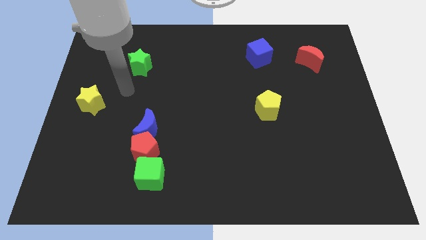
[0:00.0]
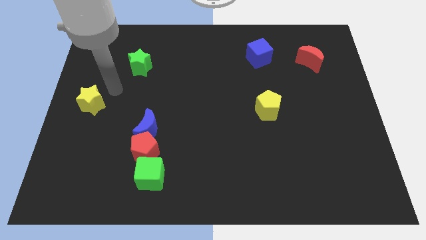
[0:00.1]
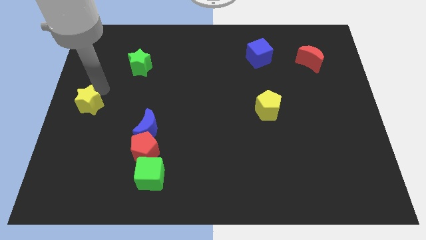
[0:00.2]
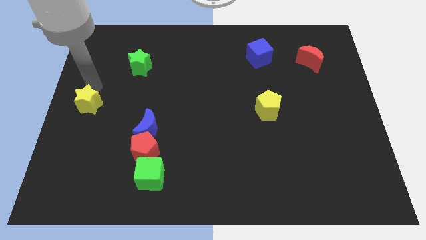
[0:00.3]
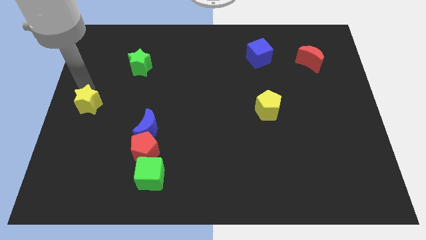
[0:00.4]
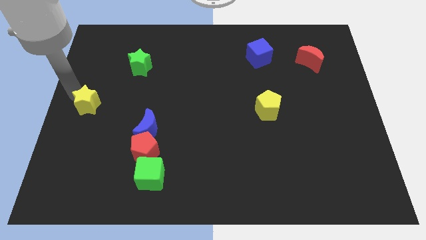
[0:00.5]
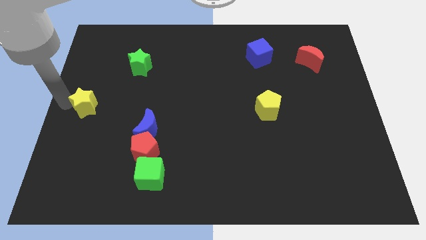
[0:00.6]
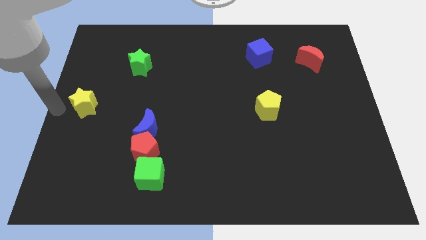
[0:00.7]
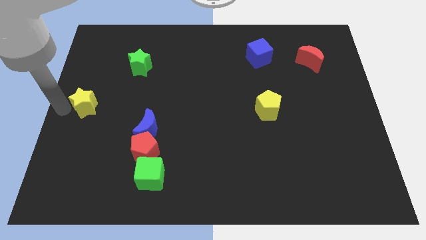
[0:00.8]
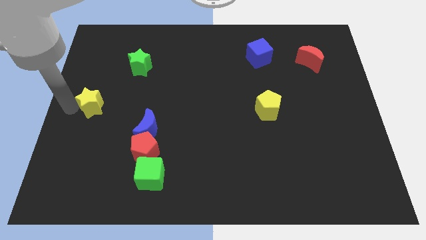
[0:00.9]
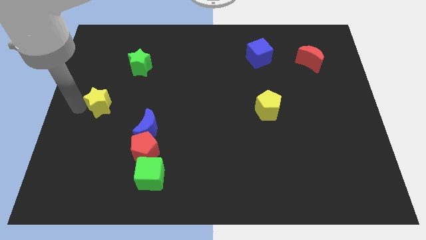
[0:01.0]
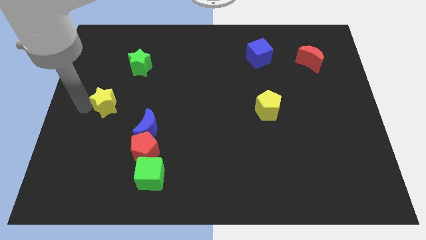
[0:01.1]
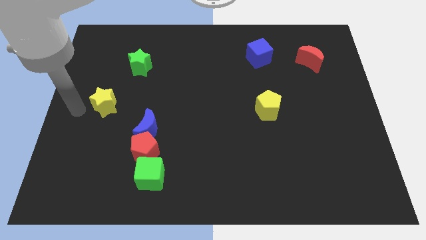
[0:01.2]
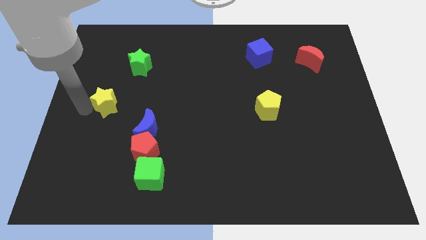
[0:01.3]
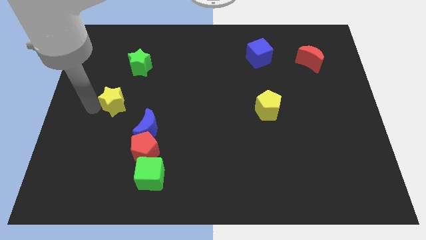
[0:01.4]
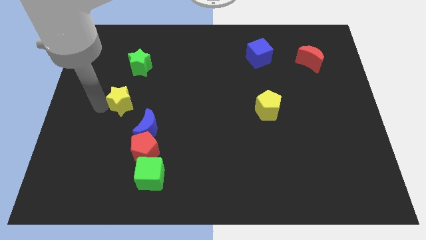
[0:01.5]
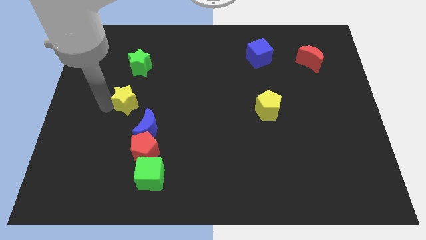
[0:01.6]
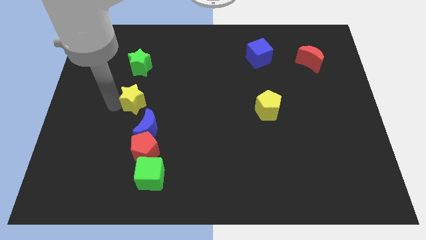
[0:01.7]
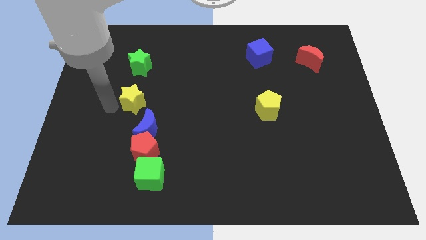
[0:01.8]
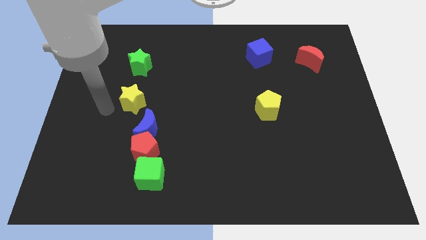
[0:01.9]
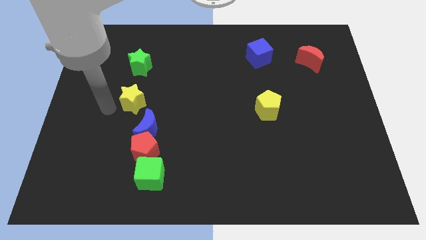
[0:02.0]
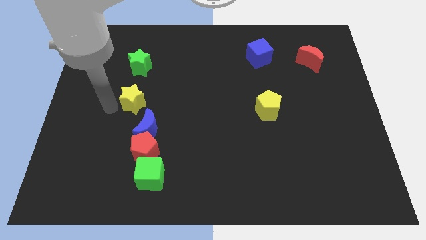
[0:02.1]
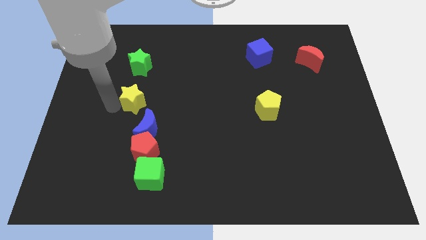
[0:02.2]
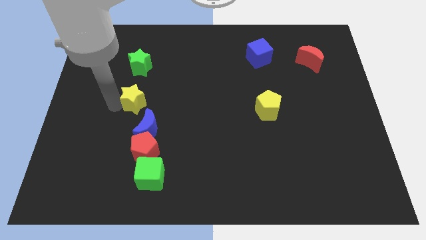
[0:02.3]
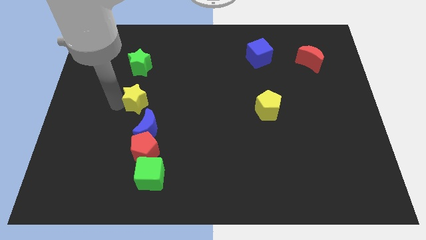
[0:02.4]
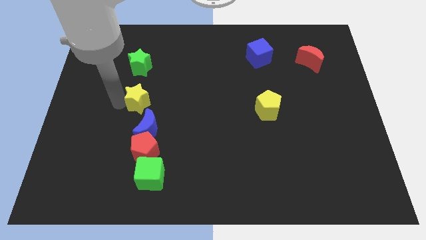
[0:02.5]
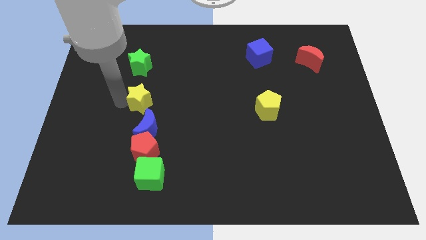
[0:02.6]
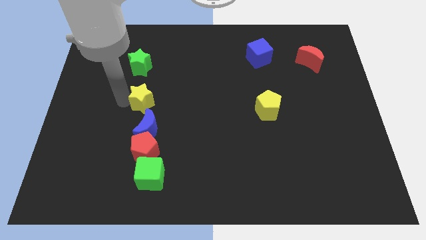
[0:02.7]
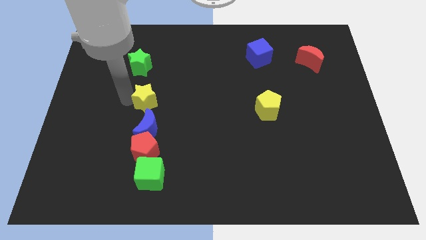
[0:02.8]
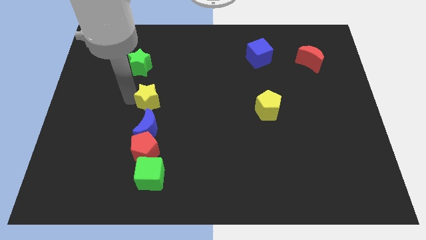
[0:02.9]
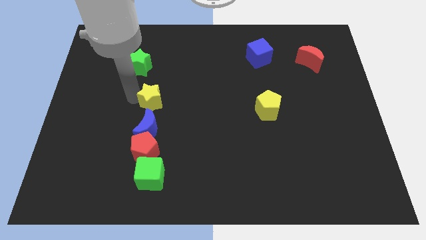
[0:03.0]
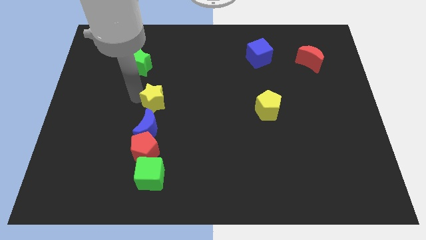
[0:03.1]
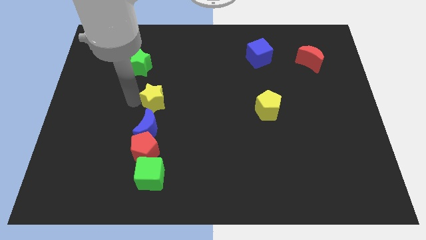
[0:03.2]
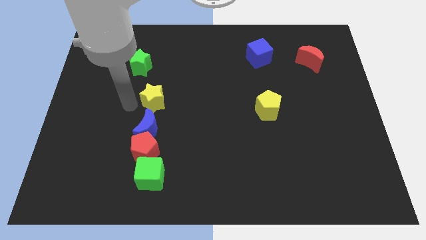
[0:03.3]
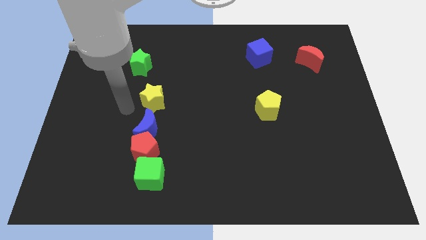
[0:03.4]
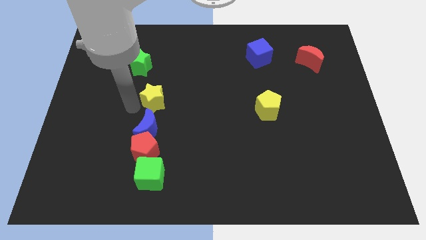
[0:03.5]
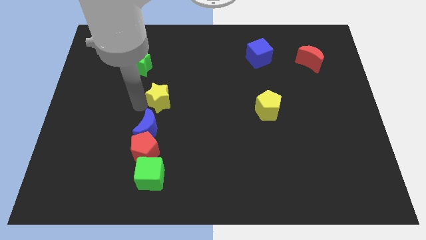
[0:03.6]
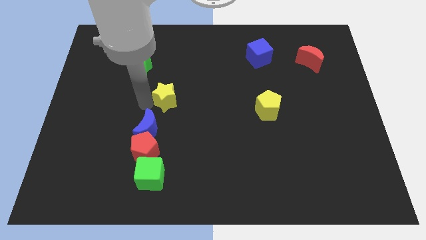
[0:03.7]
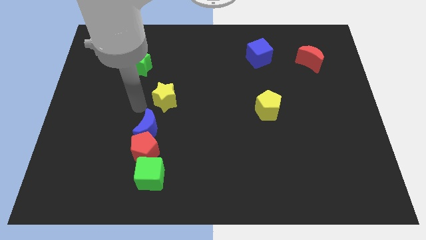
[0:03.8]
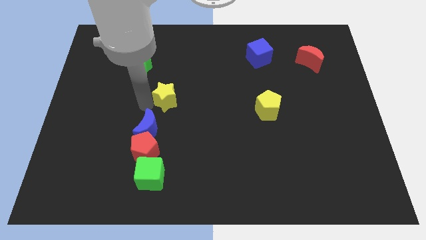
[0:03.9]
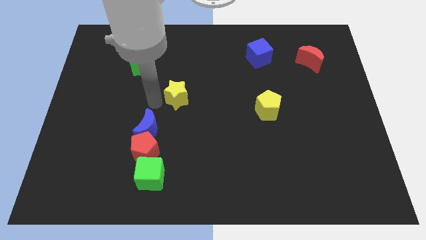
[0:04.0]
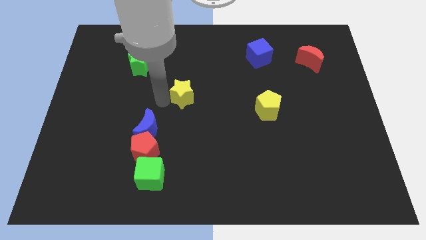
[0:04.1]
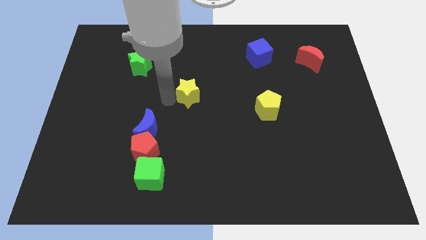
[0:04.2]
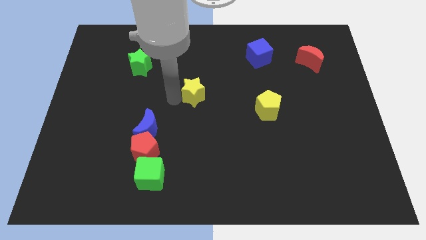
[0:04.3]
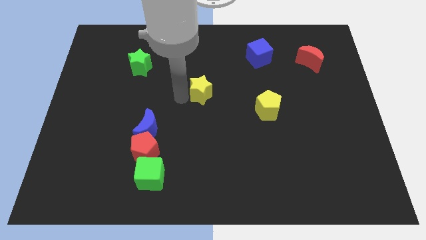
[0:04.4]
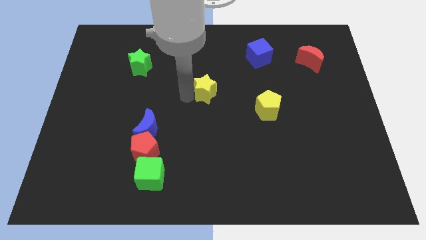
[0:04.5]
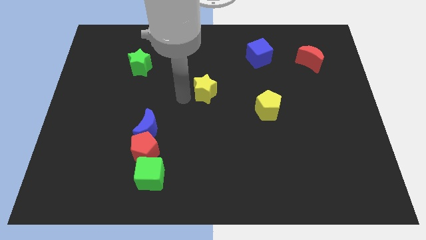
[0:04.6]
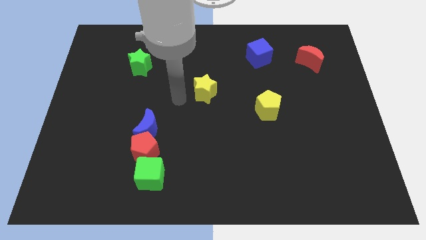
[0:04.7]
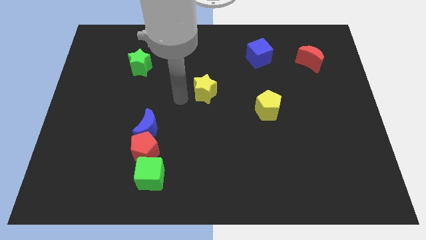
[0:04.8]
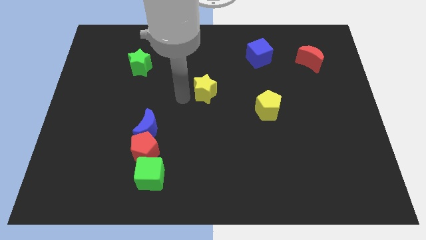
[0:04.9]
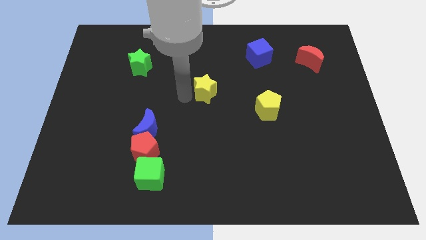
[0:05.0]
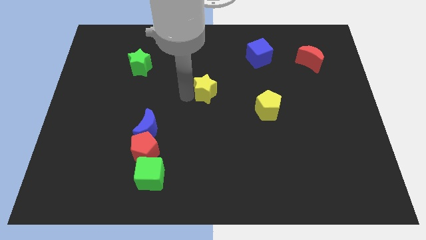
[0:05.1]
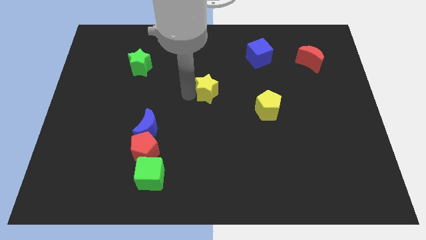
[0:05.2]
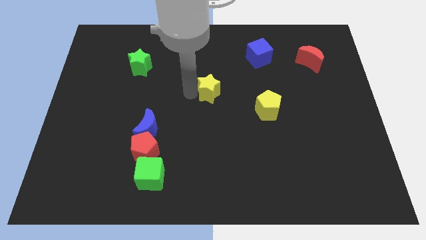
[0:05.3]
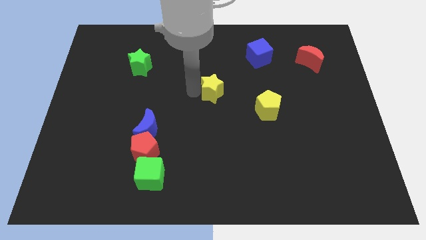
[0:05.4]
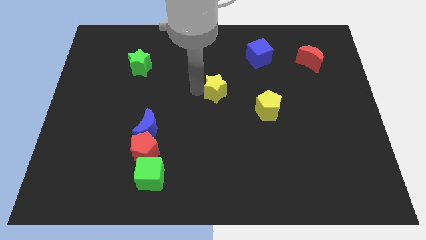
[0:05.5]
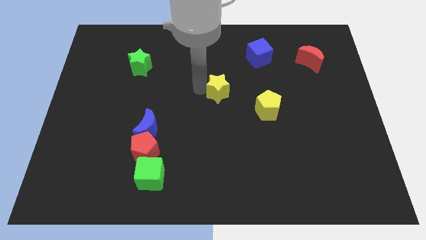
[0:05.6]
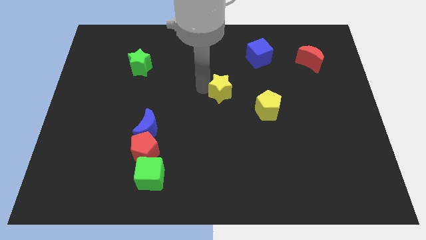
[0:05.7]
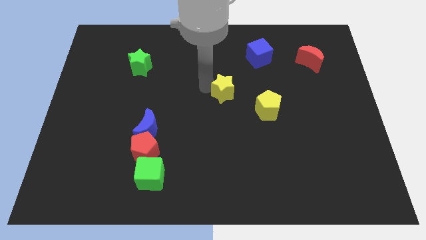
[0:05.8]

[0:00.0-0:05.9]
slide the yellow star to the top left of the yellow pentagon
